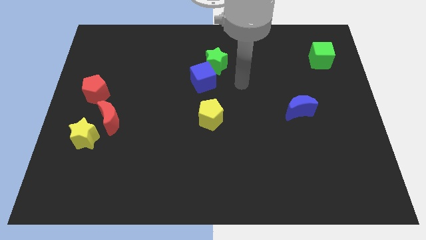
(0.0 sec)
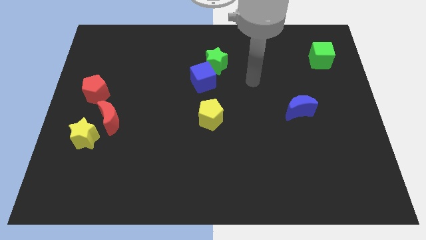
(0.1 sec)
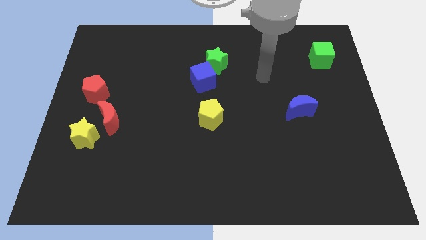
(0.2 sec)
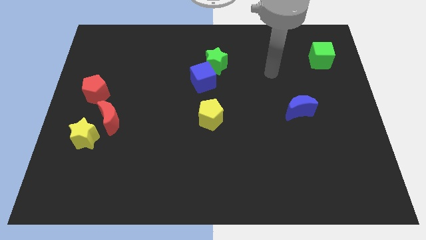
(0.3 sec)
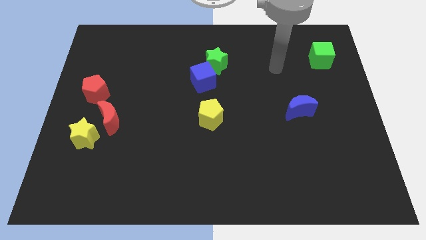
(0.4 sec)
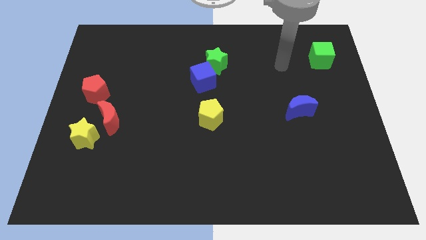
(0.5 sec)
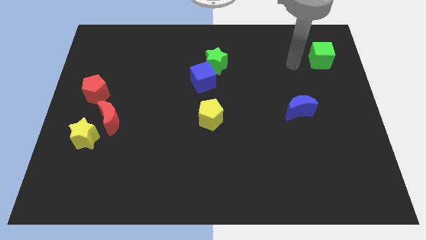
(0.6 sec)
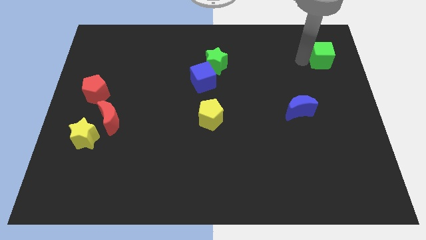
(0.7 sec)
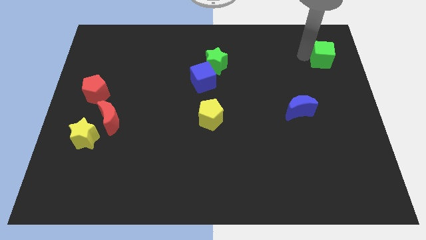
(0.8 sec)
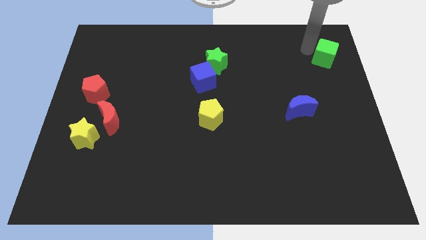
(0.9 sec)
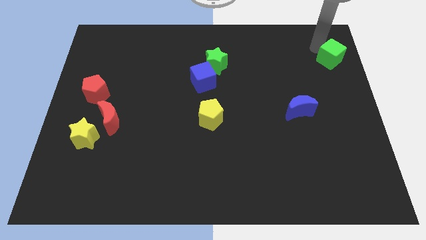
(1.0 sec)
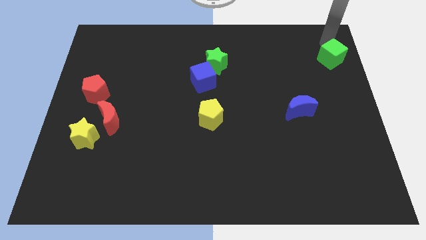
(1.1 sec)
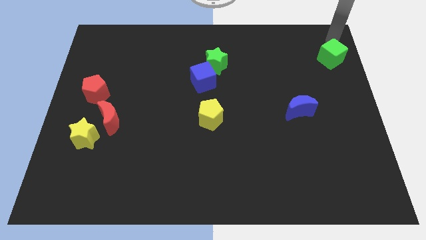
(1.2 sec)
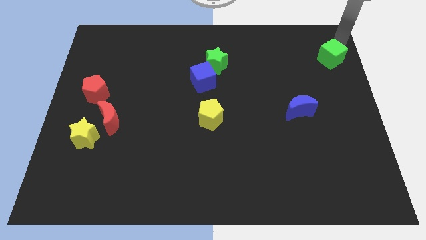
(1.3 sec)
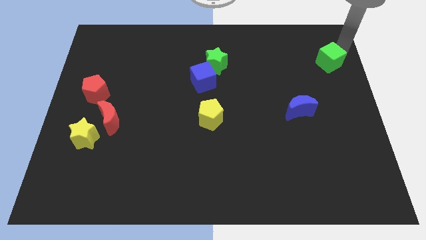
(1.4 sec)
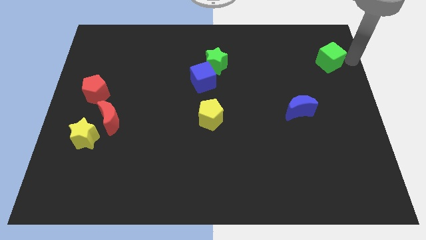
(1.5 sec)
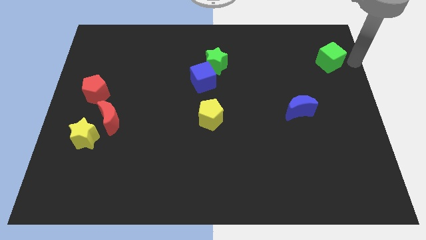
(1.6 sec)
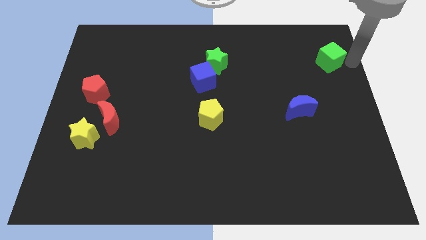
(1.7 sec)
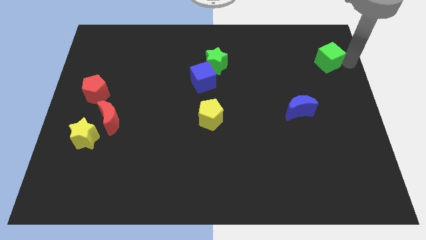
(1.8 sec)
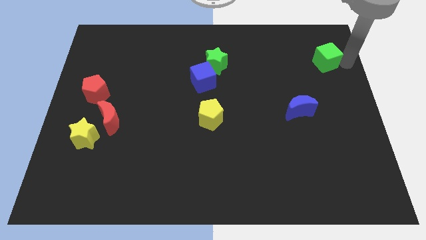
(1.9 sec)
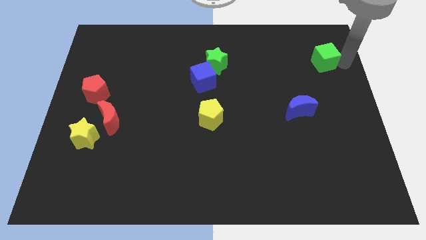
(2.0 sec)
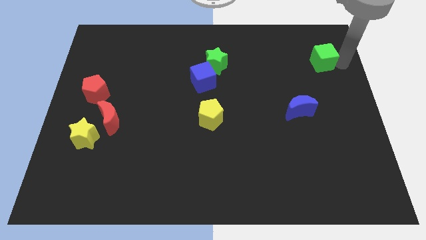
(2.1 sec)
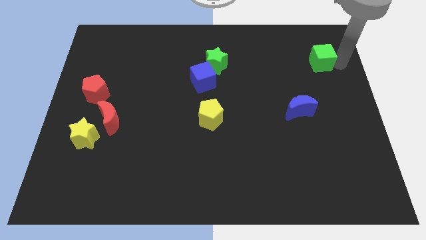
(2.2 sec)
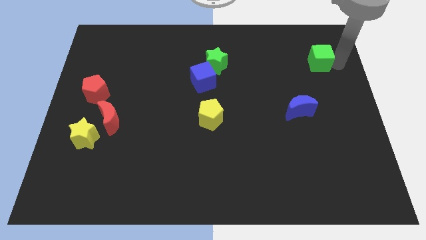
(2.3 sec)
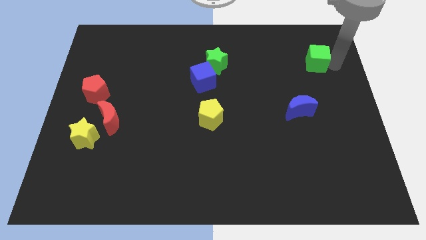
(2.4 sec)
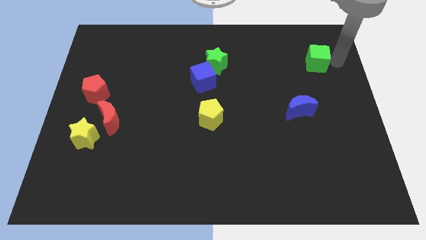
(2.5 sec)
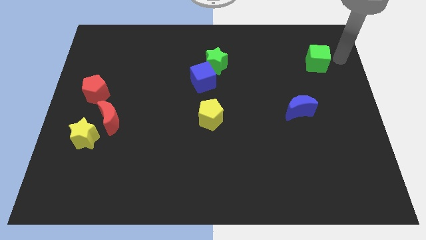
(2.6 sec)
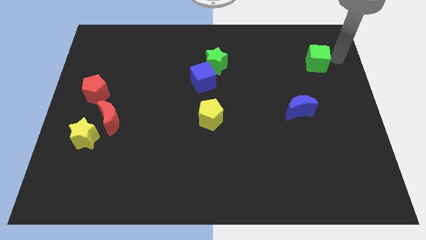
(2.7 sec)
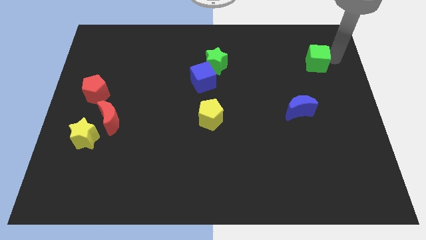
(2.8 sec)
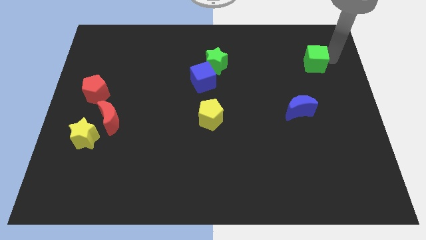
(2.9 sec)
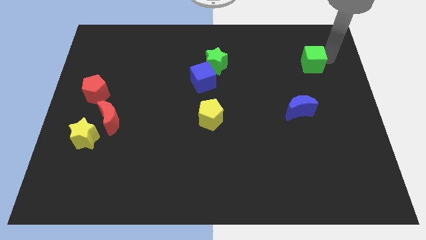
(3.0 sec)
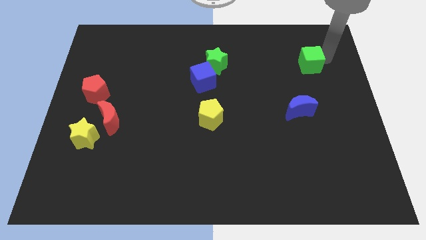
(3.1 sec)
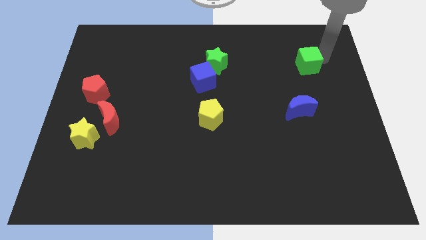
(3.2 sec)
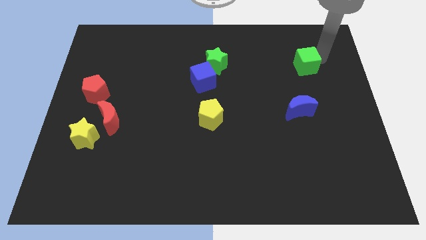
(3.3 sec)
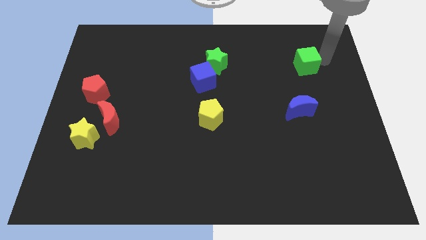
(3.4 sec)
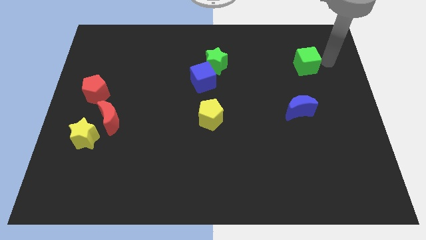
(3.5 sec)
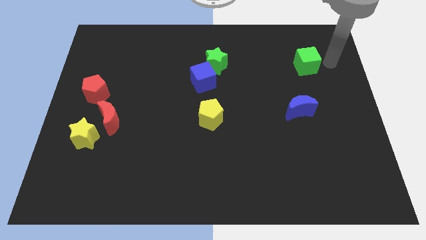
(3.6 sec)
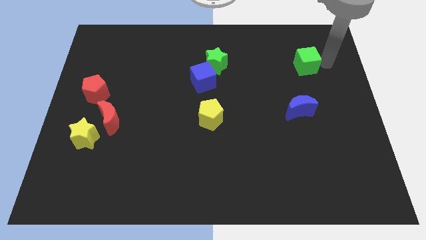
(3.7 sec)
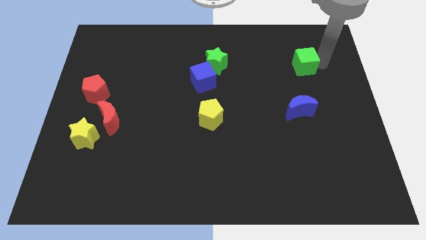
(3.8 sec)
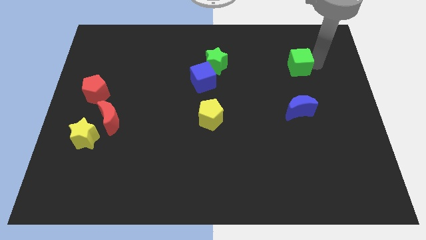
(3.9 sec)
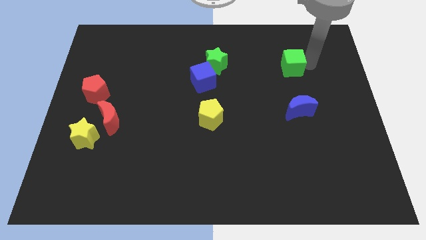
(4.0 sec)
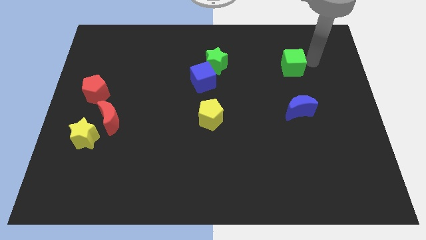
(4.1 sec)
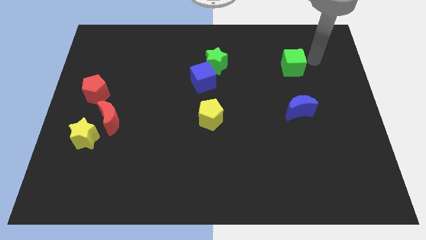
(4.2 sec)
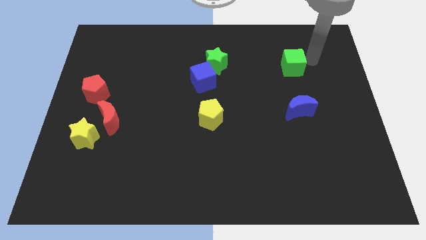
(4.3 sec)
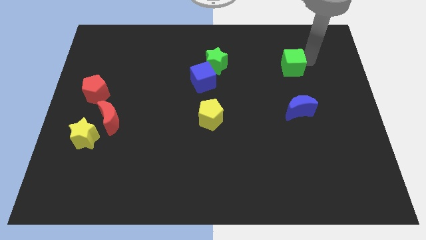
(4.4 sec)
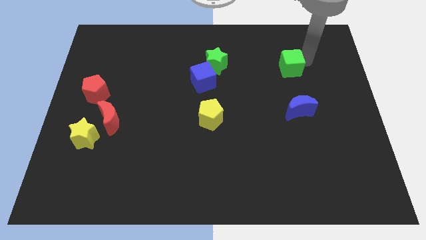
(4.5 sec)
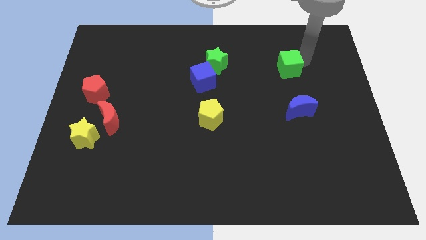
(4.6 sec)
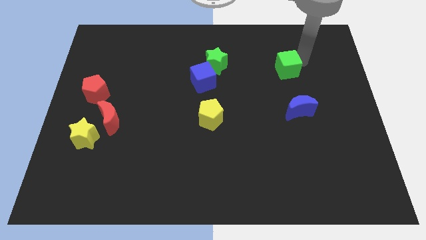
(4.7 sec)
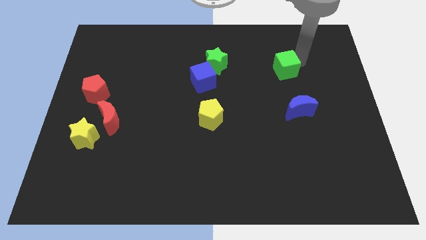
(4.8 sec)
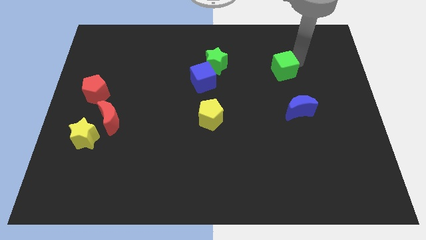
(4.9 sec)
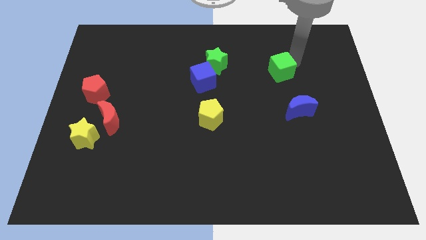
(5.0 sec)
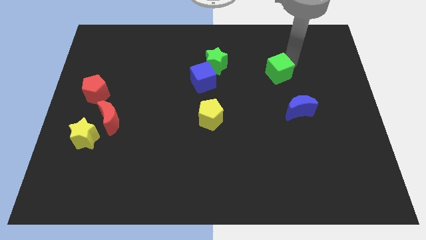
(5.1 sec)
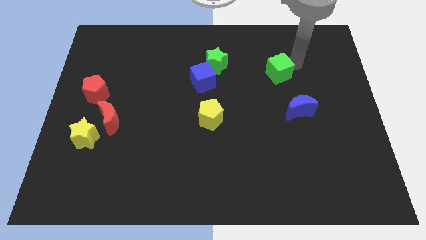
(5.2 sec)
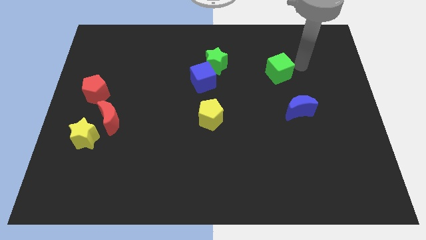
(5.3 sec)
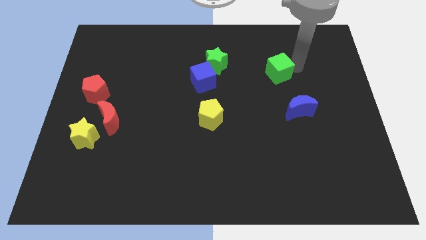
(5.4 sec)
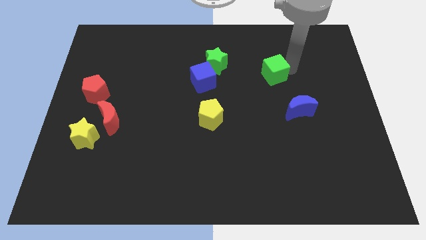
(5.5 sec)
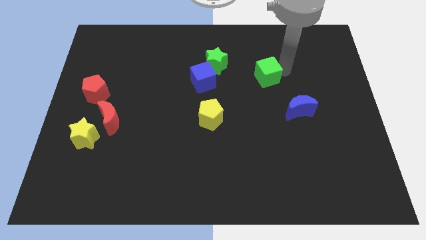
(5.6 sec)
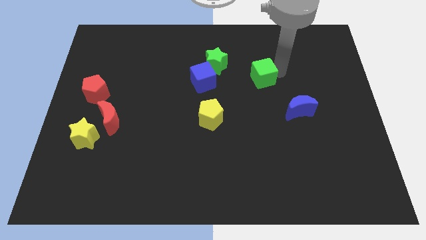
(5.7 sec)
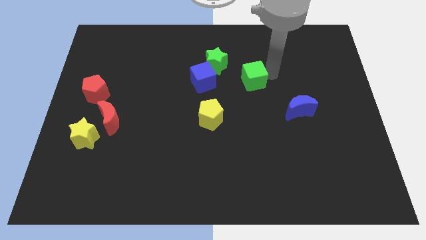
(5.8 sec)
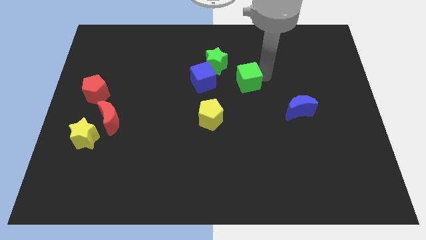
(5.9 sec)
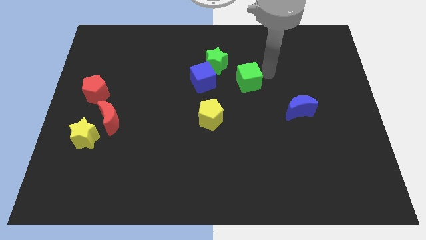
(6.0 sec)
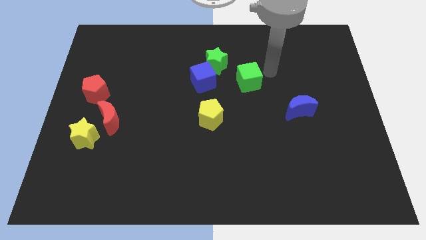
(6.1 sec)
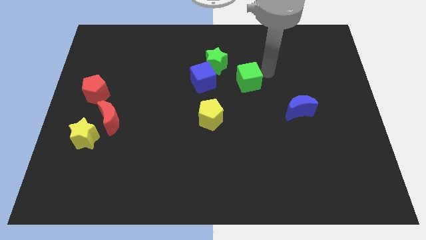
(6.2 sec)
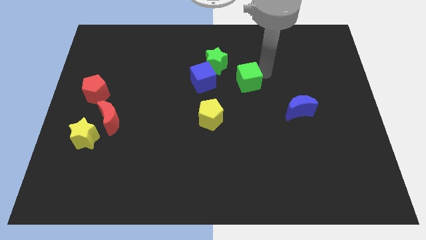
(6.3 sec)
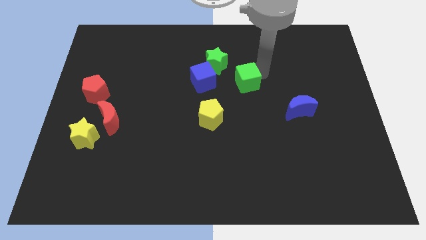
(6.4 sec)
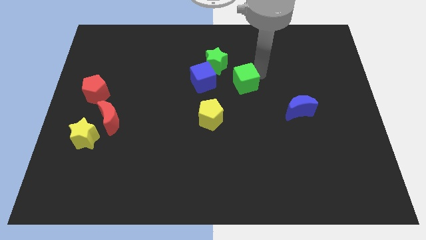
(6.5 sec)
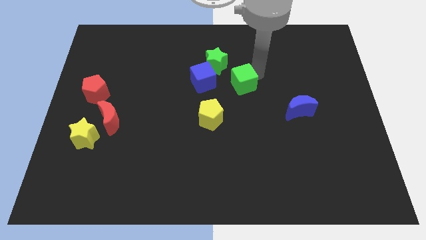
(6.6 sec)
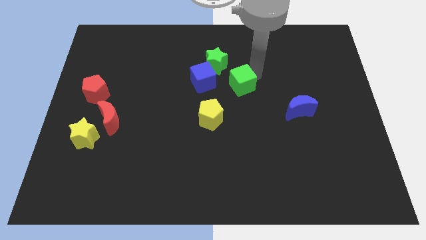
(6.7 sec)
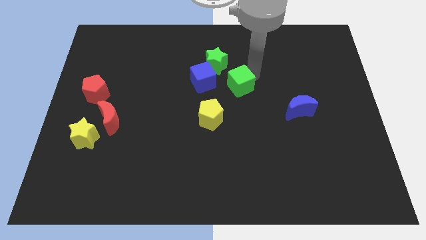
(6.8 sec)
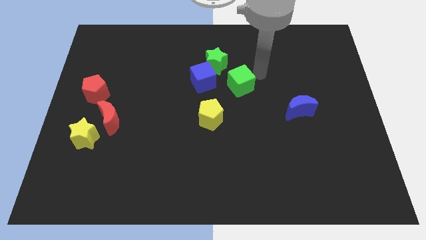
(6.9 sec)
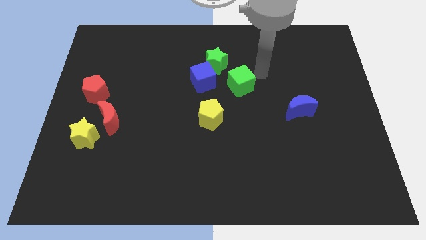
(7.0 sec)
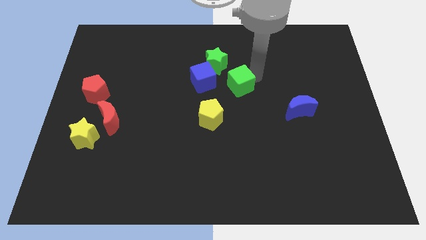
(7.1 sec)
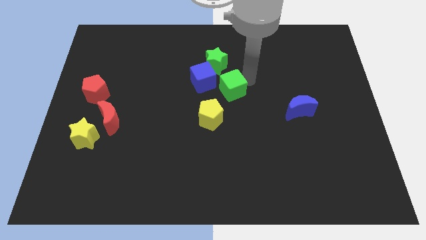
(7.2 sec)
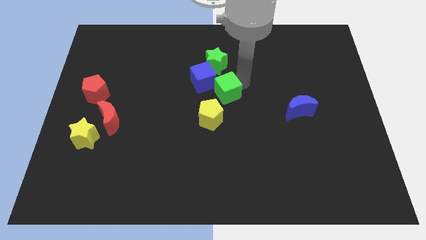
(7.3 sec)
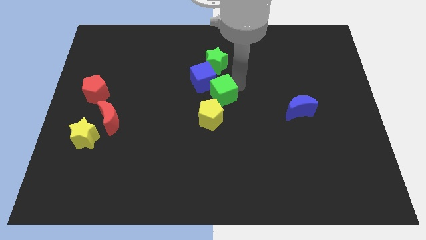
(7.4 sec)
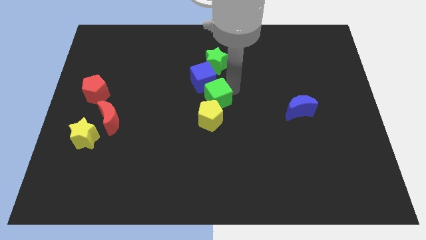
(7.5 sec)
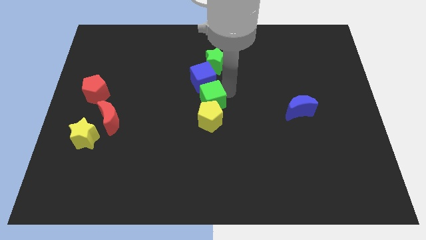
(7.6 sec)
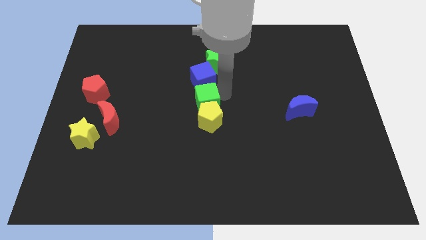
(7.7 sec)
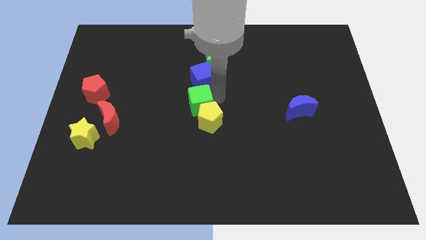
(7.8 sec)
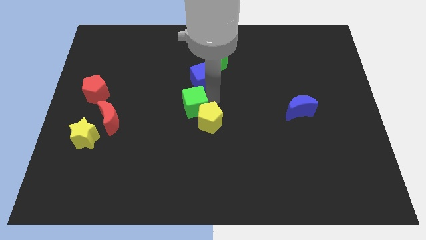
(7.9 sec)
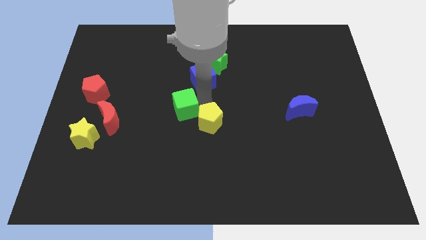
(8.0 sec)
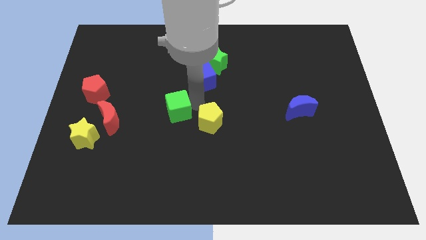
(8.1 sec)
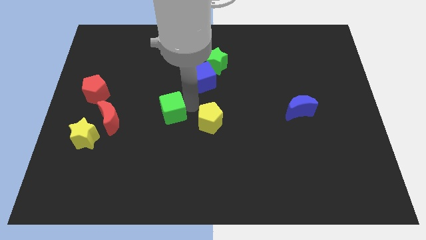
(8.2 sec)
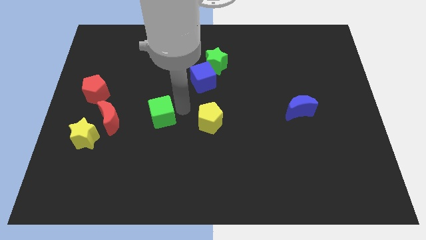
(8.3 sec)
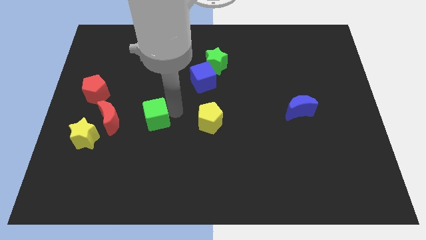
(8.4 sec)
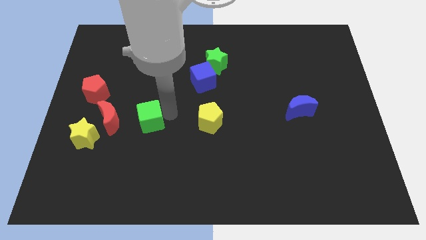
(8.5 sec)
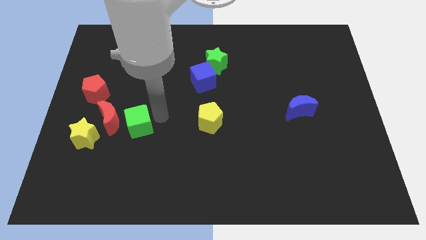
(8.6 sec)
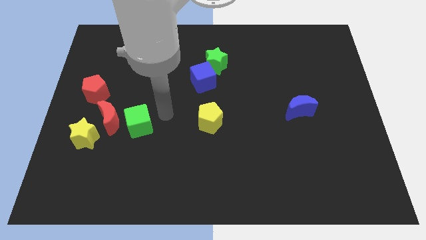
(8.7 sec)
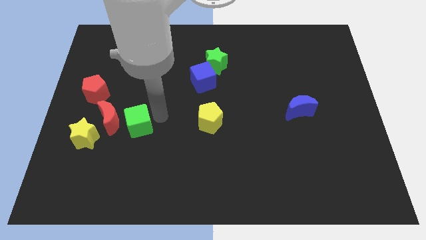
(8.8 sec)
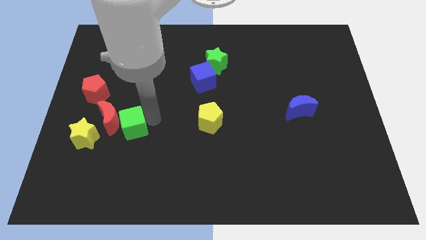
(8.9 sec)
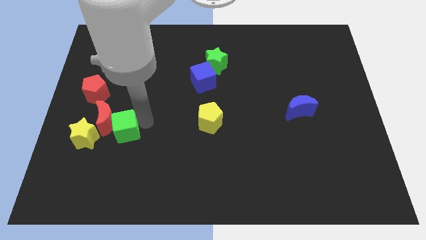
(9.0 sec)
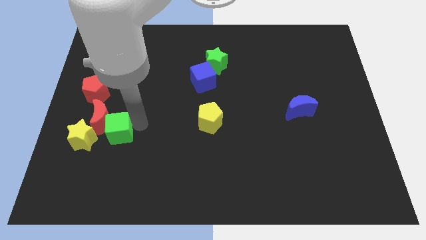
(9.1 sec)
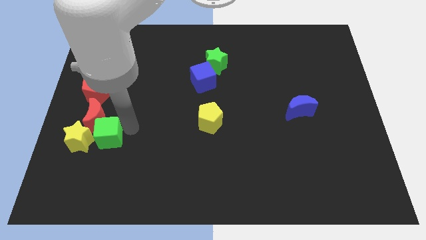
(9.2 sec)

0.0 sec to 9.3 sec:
push the green cube towards the yellow star
